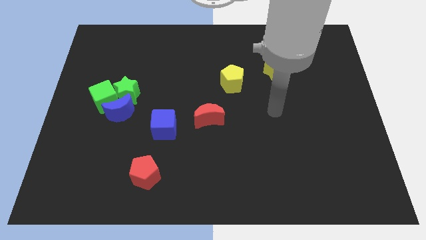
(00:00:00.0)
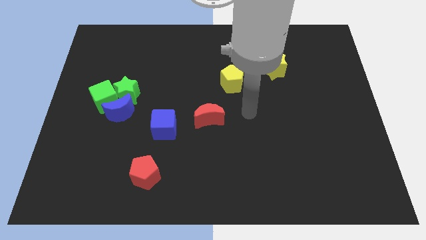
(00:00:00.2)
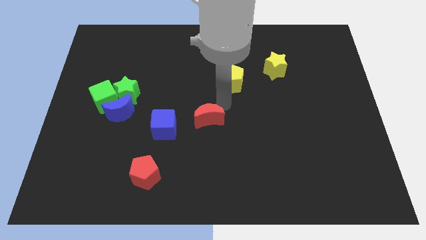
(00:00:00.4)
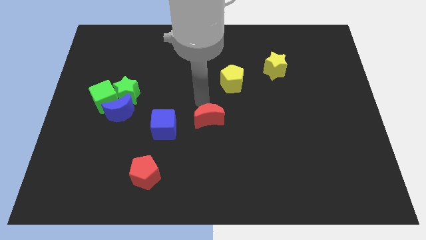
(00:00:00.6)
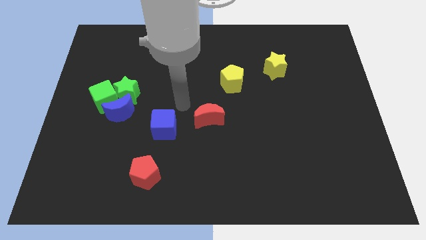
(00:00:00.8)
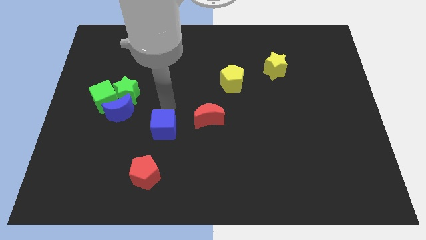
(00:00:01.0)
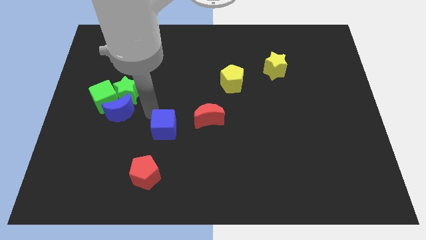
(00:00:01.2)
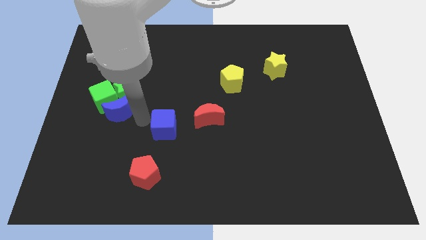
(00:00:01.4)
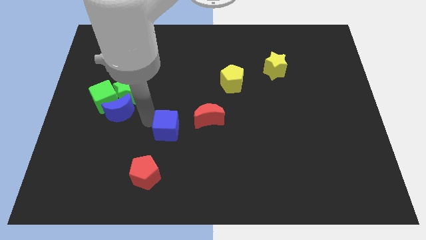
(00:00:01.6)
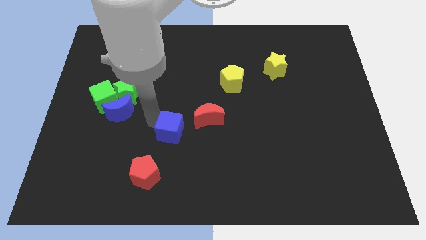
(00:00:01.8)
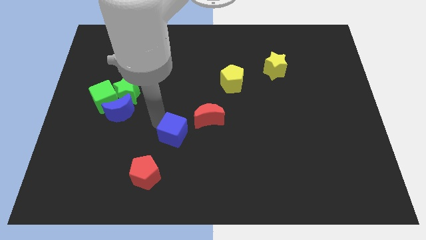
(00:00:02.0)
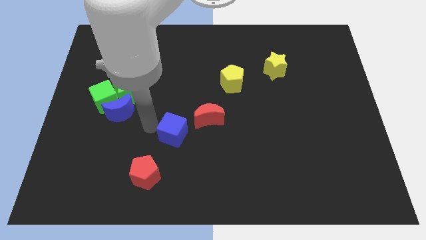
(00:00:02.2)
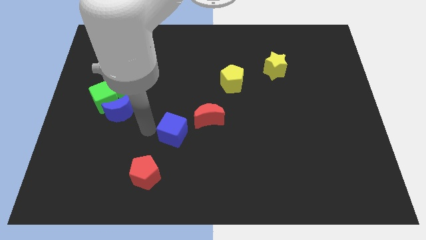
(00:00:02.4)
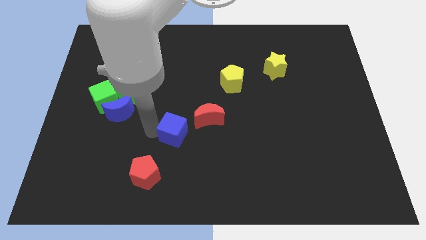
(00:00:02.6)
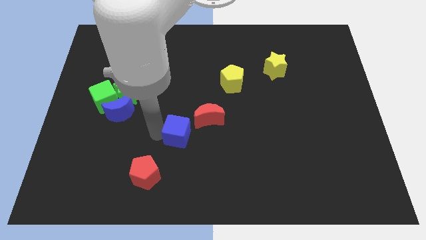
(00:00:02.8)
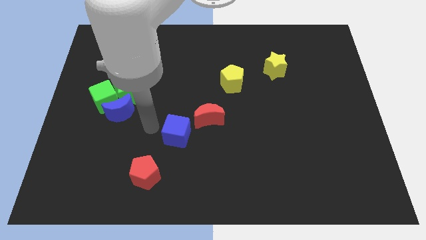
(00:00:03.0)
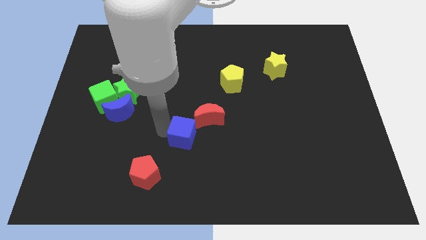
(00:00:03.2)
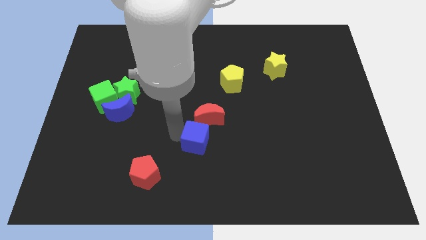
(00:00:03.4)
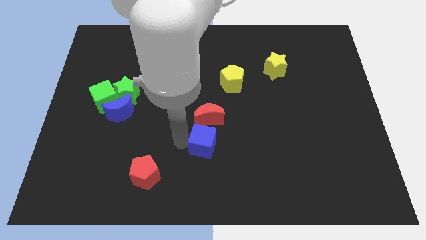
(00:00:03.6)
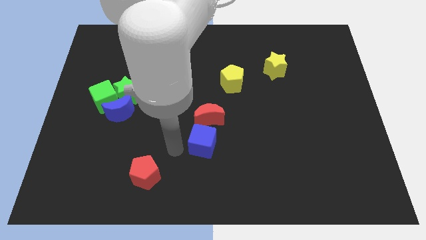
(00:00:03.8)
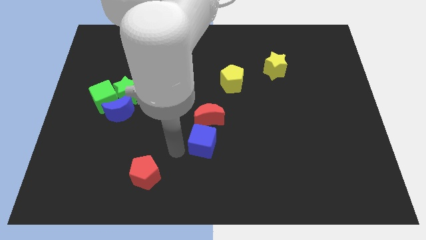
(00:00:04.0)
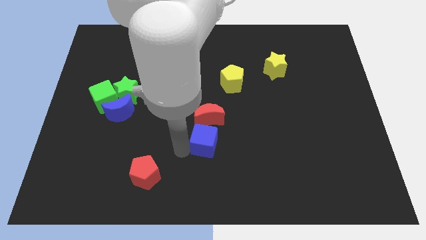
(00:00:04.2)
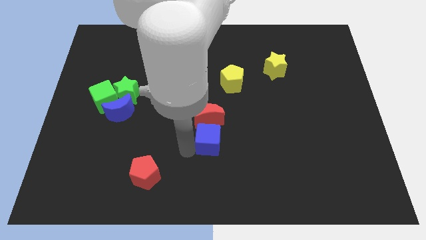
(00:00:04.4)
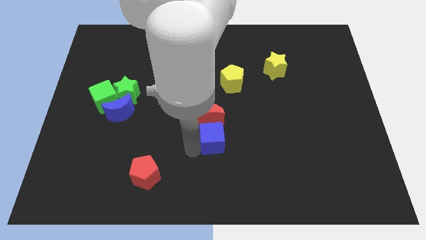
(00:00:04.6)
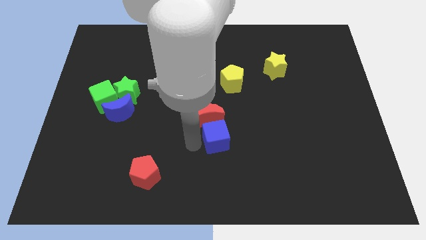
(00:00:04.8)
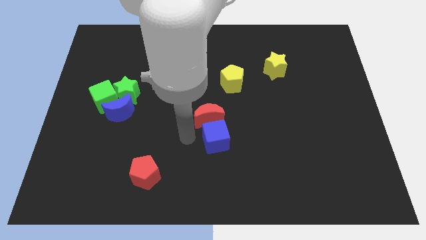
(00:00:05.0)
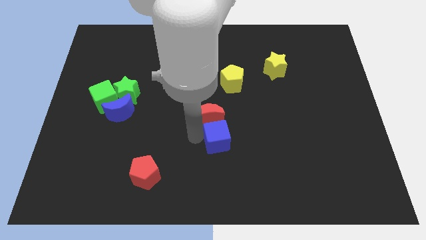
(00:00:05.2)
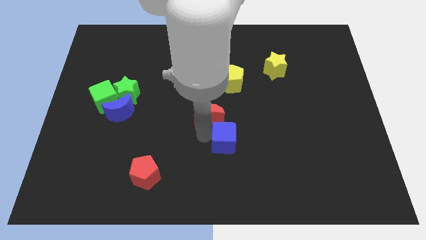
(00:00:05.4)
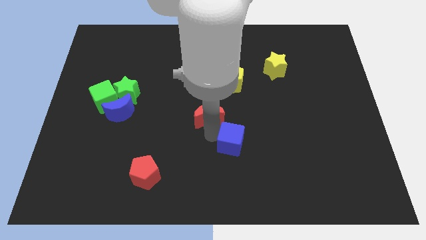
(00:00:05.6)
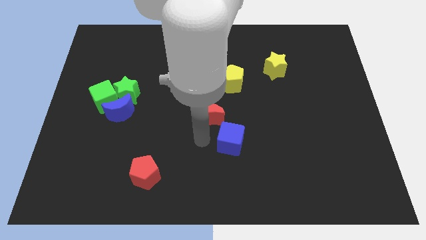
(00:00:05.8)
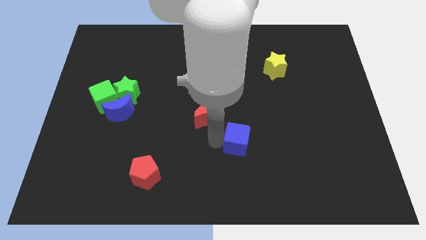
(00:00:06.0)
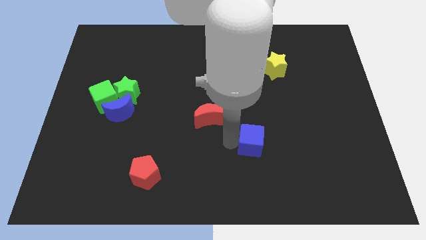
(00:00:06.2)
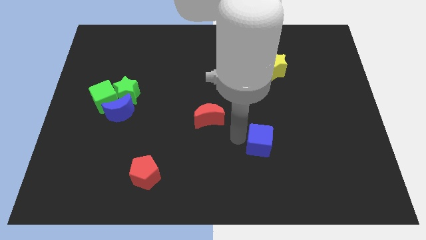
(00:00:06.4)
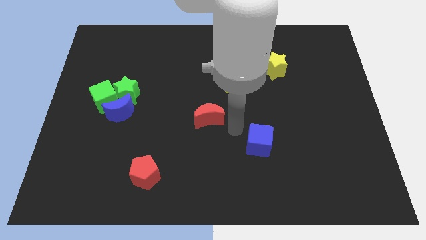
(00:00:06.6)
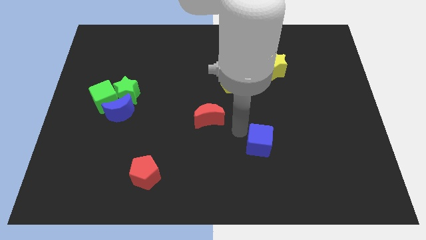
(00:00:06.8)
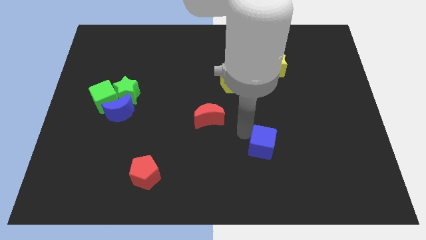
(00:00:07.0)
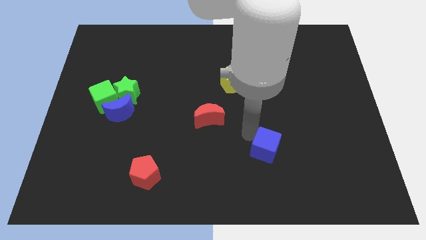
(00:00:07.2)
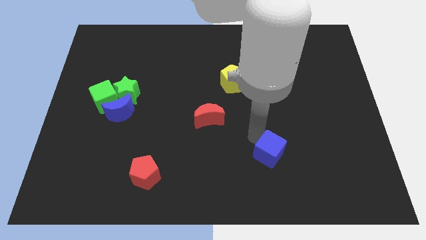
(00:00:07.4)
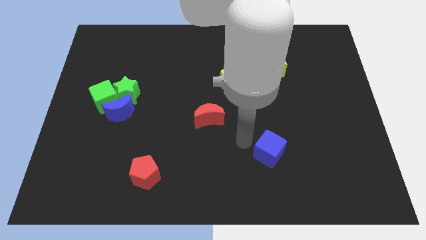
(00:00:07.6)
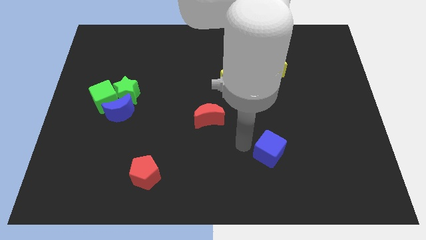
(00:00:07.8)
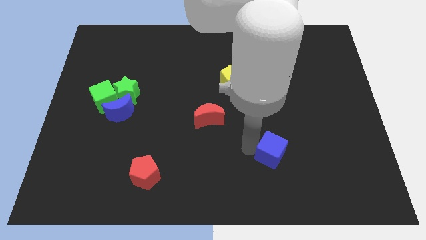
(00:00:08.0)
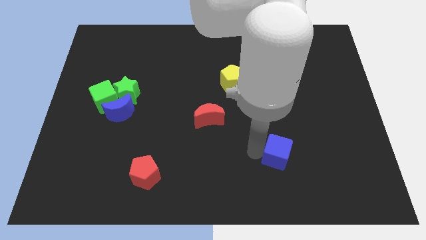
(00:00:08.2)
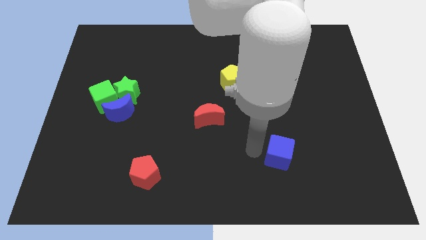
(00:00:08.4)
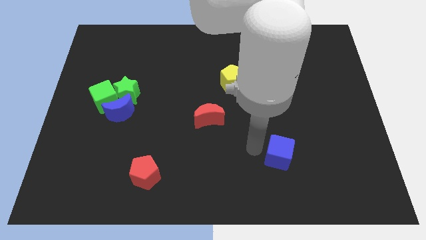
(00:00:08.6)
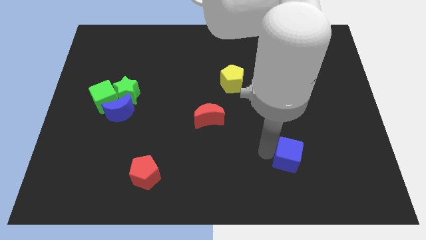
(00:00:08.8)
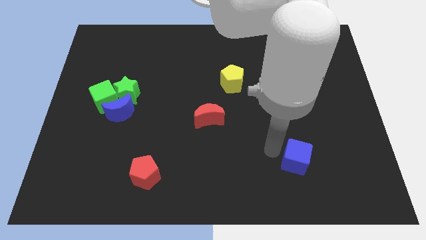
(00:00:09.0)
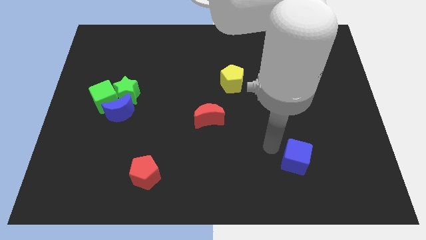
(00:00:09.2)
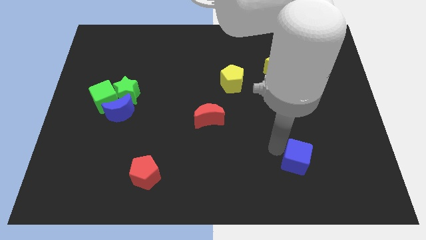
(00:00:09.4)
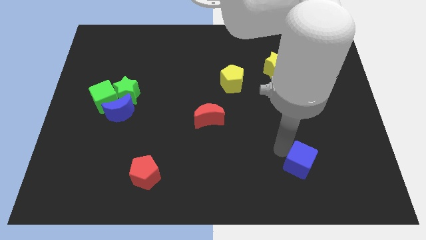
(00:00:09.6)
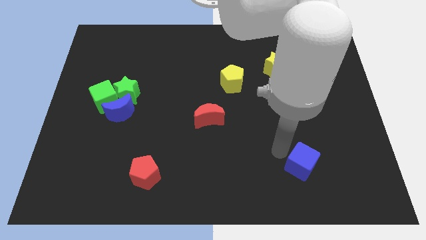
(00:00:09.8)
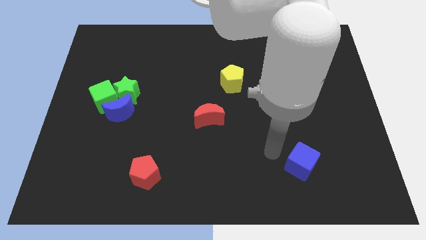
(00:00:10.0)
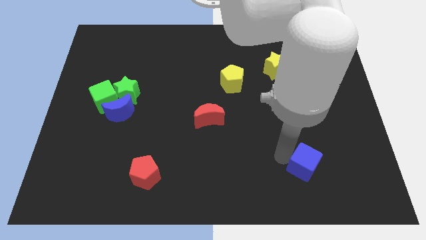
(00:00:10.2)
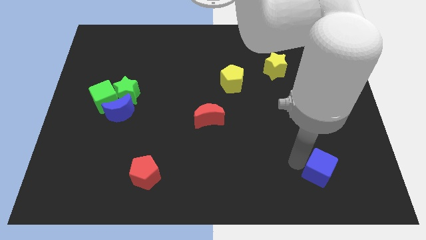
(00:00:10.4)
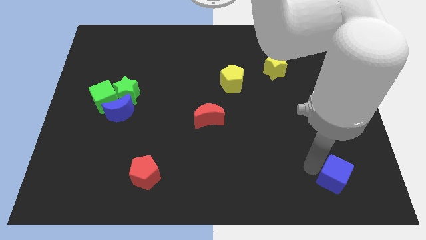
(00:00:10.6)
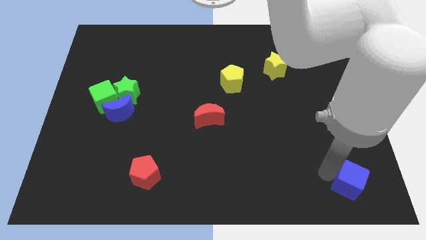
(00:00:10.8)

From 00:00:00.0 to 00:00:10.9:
put the blue cube to the bottom right of the board
